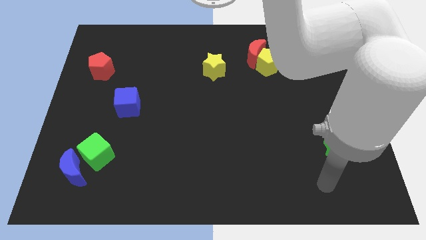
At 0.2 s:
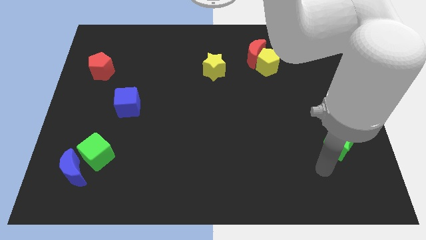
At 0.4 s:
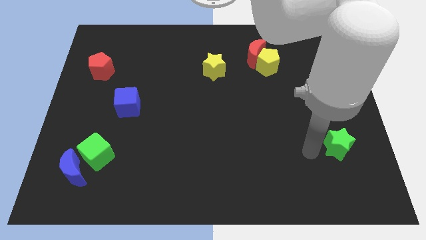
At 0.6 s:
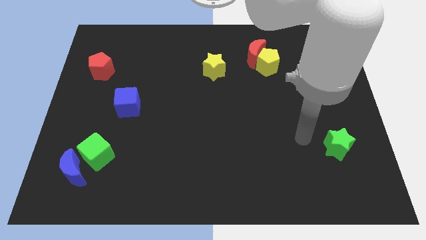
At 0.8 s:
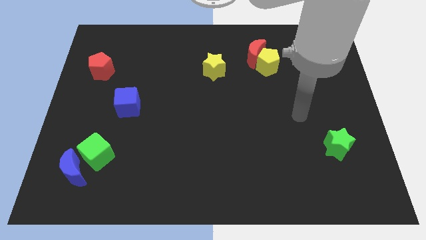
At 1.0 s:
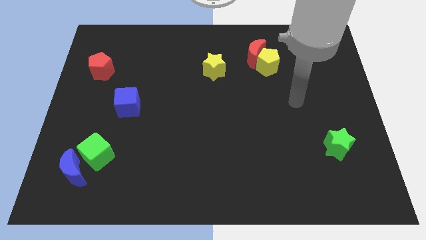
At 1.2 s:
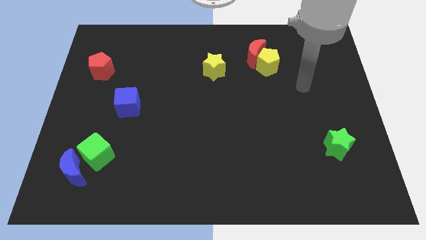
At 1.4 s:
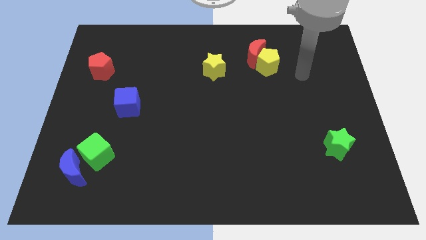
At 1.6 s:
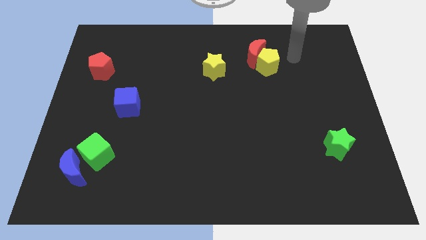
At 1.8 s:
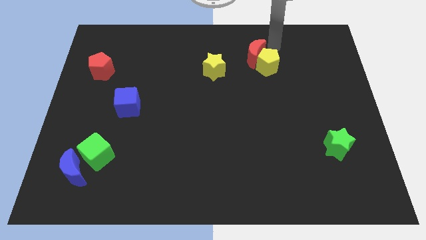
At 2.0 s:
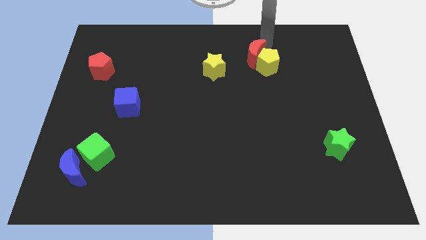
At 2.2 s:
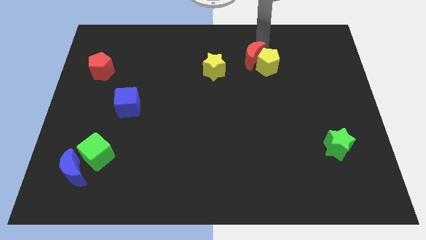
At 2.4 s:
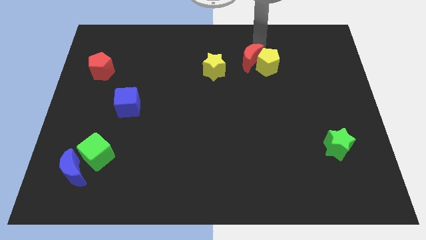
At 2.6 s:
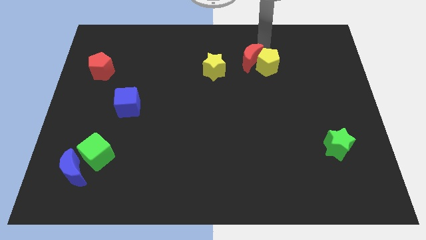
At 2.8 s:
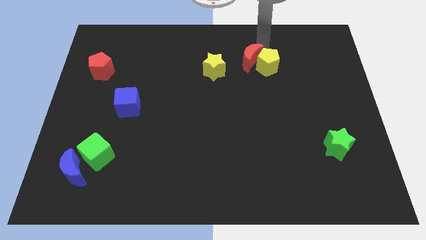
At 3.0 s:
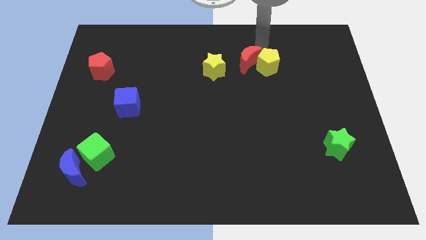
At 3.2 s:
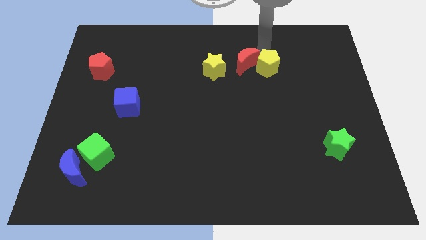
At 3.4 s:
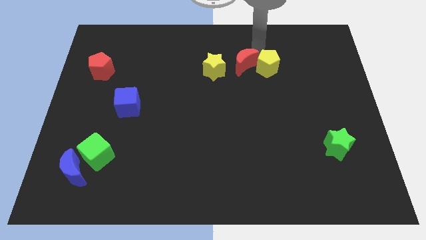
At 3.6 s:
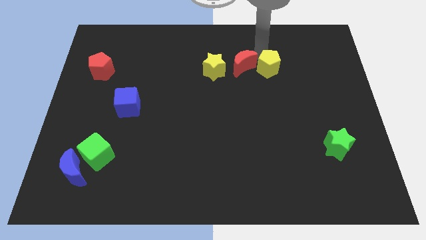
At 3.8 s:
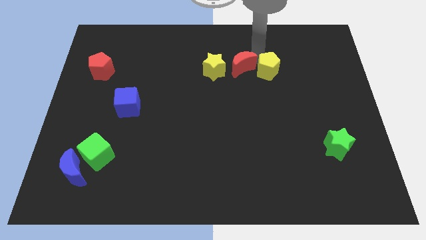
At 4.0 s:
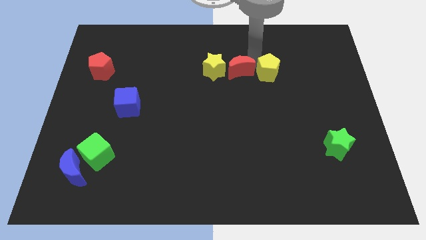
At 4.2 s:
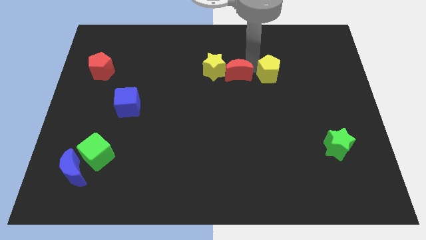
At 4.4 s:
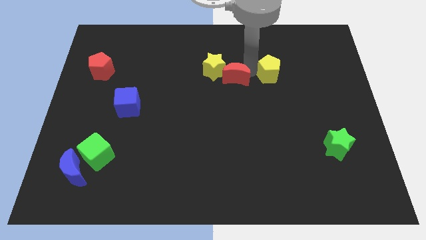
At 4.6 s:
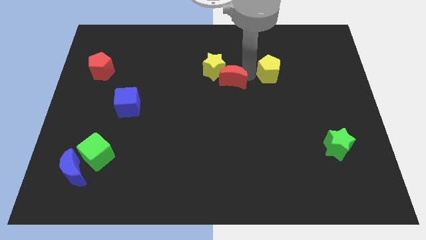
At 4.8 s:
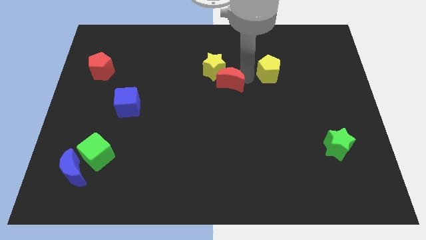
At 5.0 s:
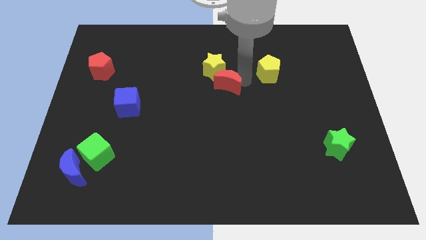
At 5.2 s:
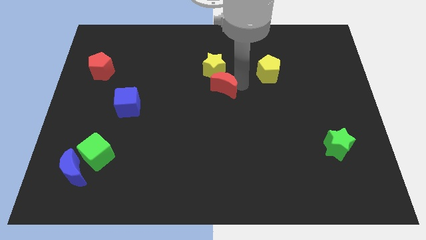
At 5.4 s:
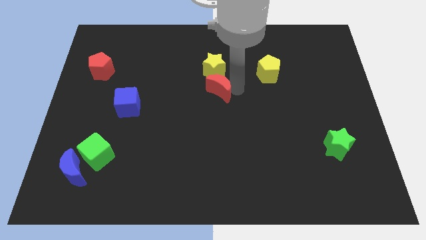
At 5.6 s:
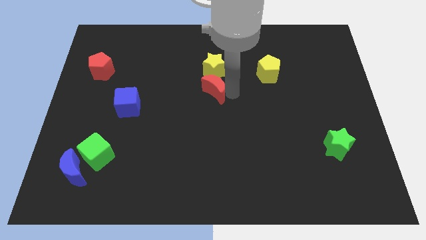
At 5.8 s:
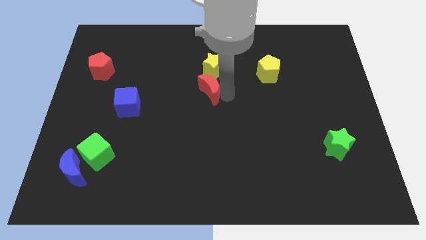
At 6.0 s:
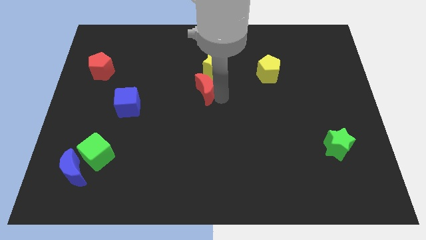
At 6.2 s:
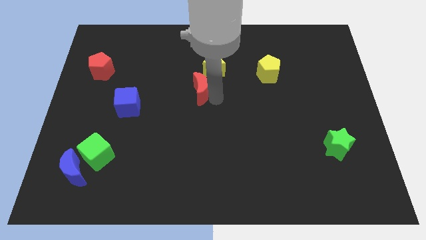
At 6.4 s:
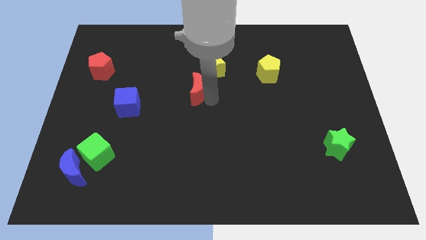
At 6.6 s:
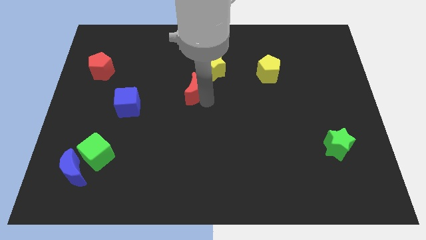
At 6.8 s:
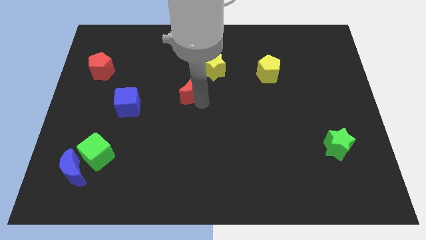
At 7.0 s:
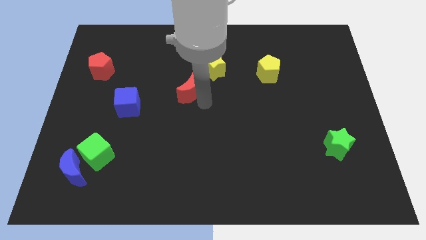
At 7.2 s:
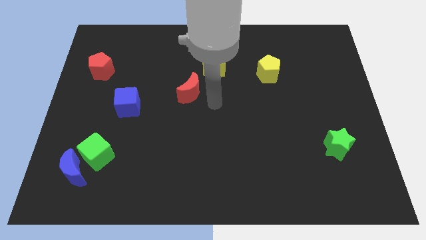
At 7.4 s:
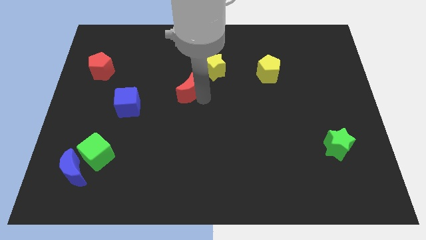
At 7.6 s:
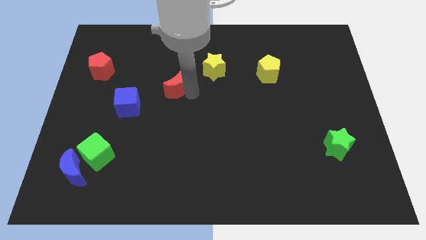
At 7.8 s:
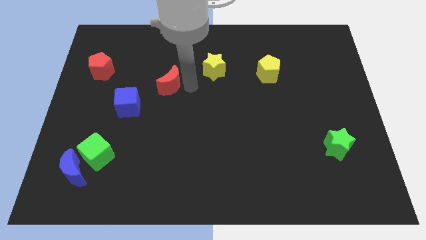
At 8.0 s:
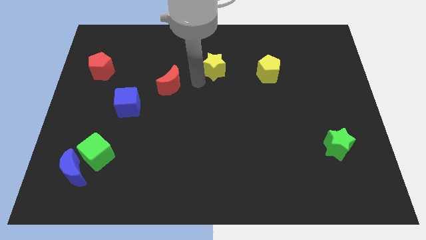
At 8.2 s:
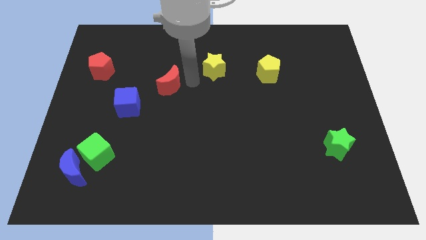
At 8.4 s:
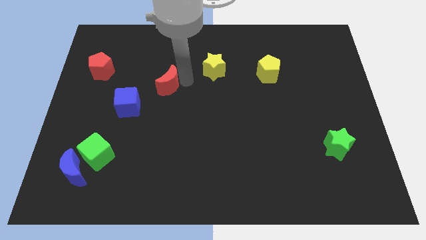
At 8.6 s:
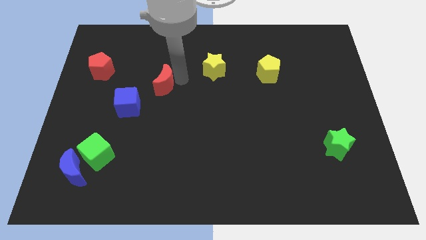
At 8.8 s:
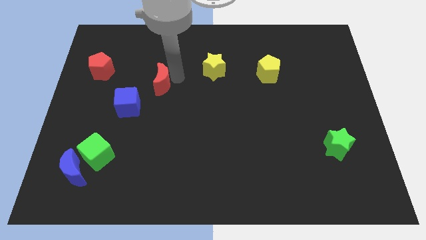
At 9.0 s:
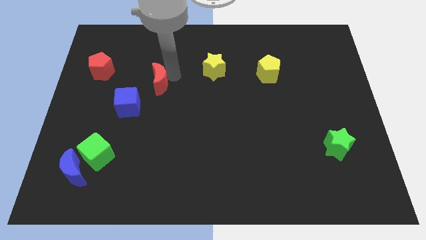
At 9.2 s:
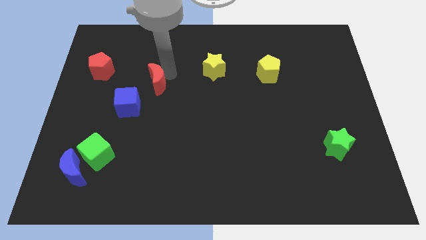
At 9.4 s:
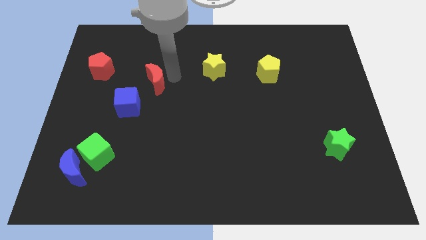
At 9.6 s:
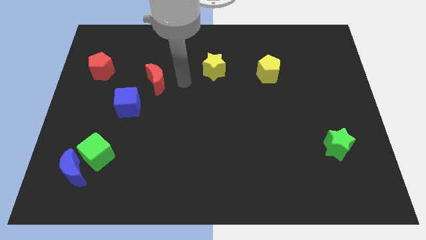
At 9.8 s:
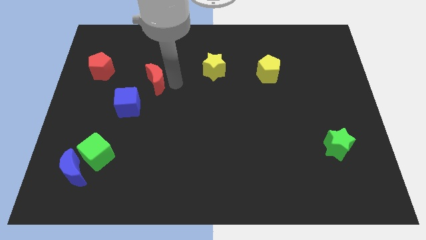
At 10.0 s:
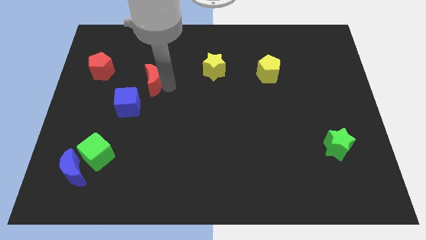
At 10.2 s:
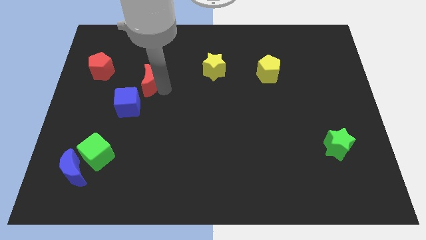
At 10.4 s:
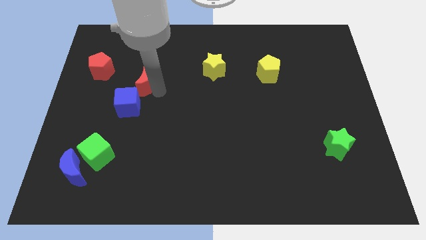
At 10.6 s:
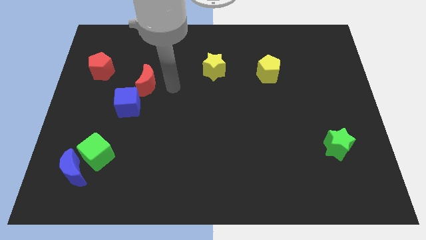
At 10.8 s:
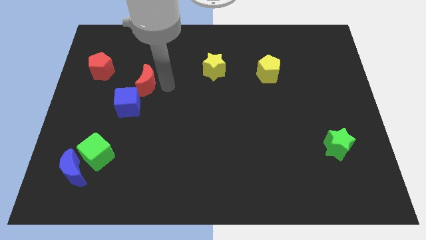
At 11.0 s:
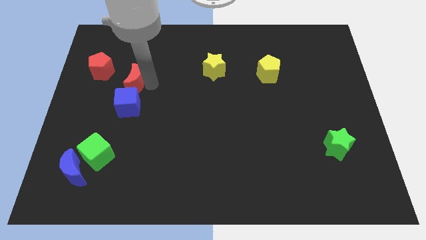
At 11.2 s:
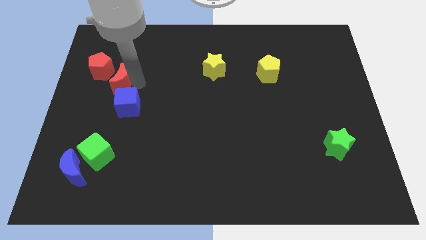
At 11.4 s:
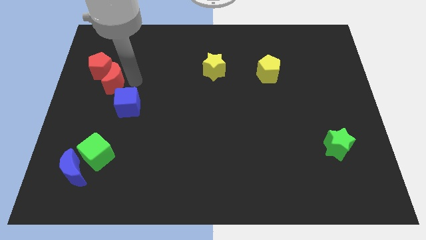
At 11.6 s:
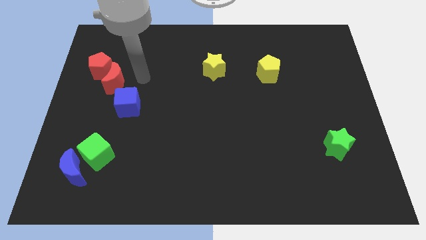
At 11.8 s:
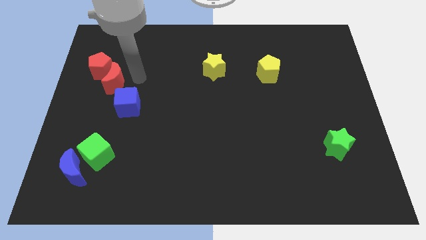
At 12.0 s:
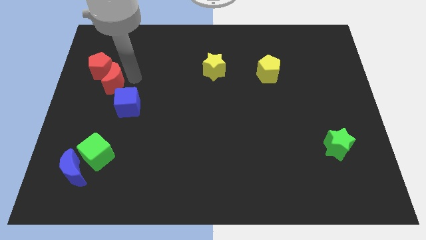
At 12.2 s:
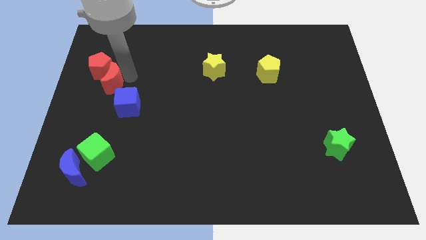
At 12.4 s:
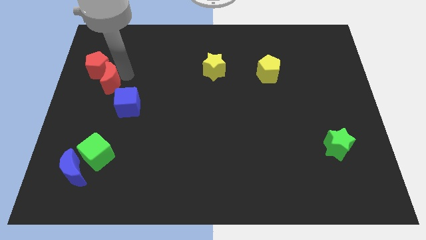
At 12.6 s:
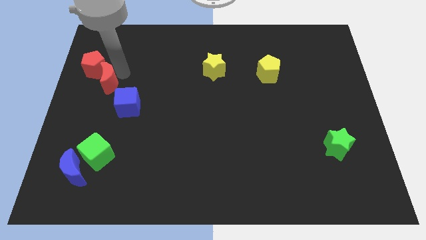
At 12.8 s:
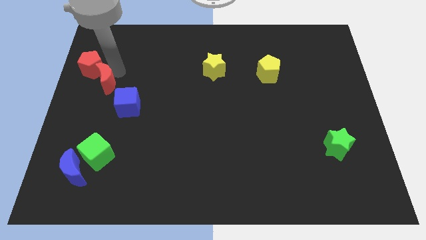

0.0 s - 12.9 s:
move the red moon to the left side of the board

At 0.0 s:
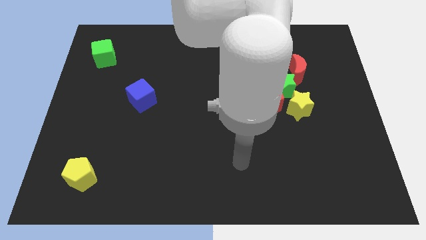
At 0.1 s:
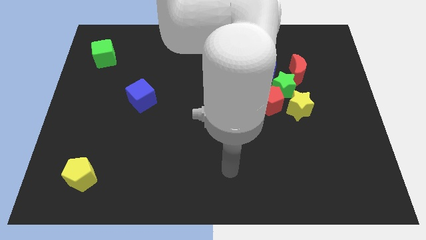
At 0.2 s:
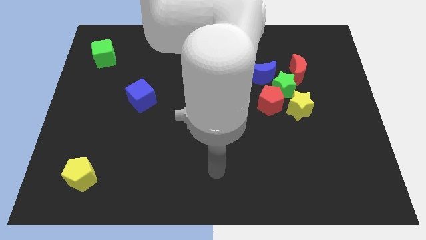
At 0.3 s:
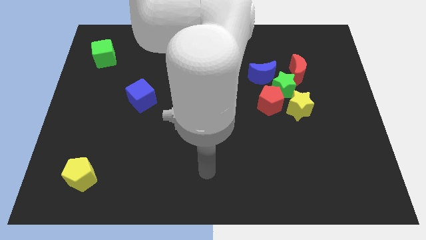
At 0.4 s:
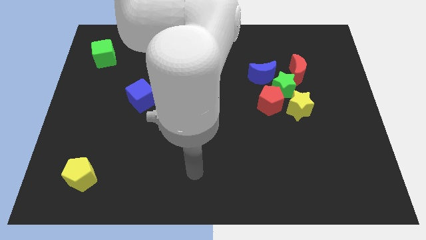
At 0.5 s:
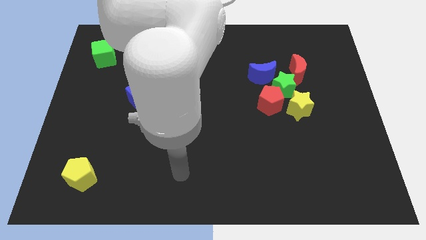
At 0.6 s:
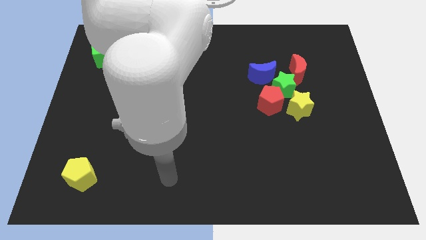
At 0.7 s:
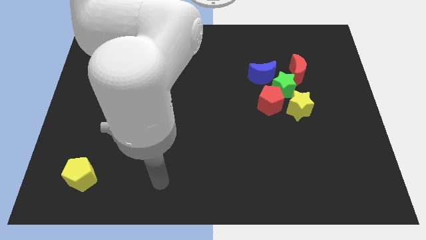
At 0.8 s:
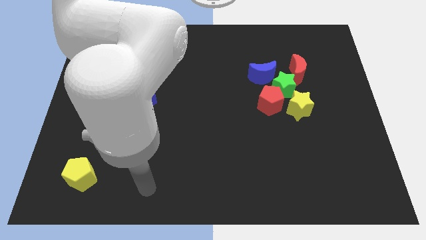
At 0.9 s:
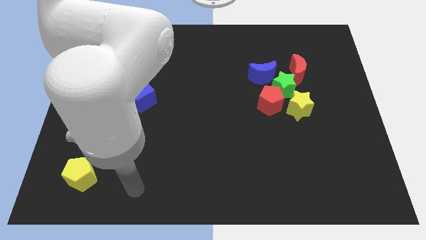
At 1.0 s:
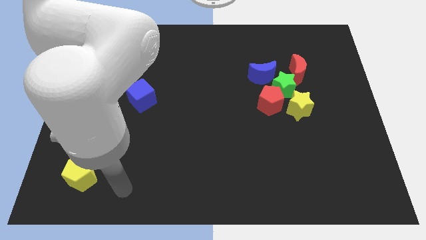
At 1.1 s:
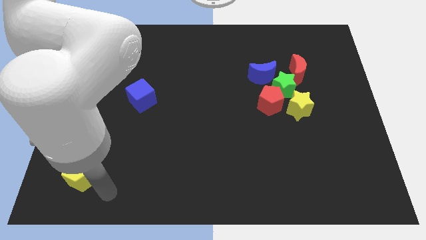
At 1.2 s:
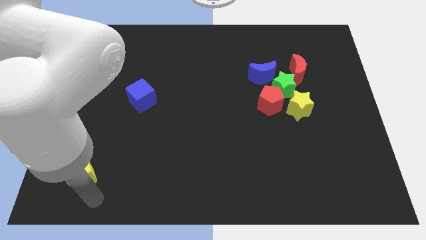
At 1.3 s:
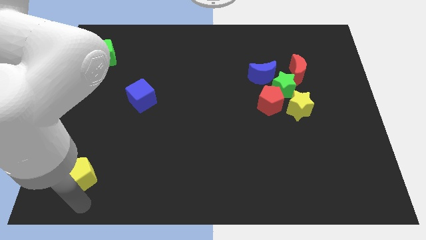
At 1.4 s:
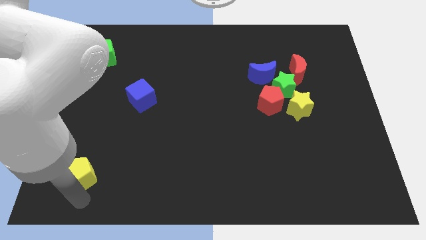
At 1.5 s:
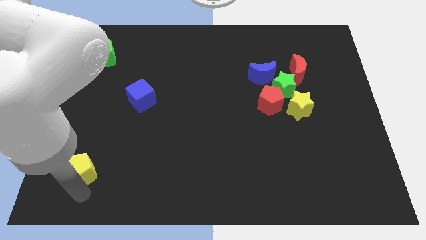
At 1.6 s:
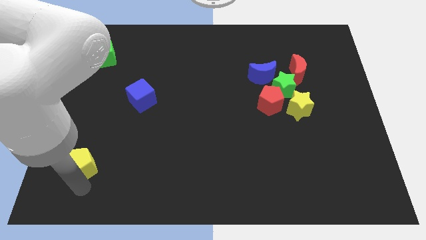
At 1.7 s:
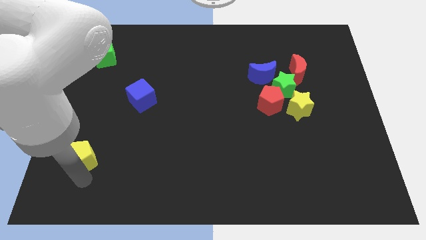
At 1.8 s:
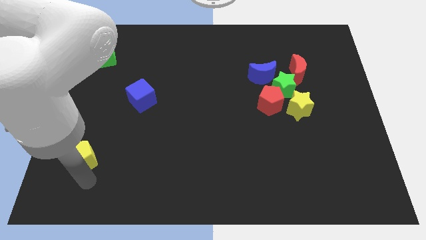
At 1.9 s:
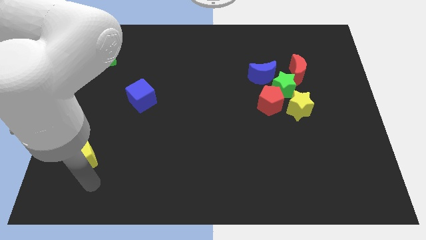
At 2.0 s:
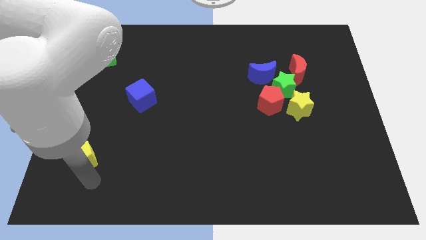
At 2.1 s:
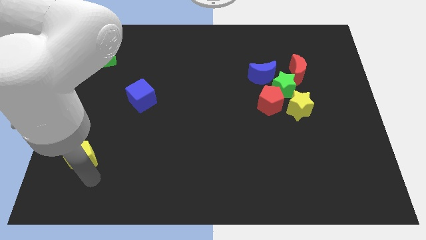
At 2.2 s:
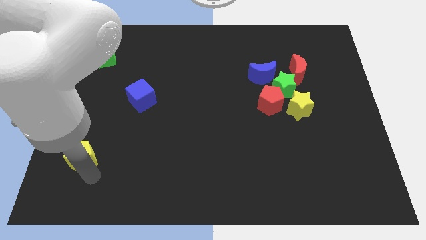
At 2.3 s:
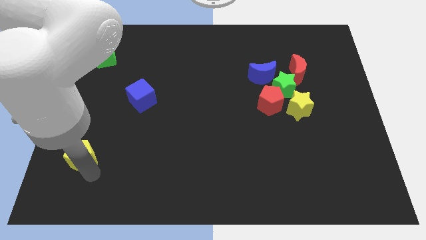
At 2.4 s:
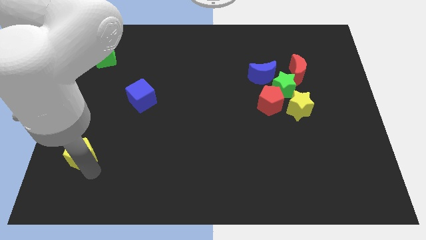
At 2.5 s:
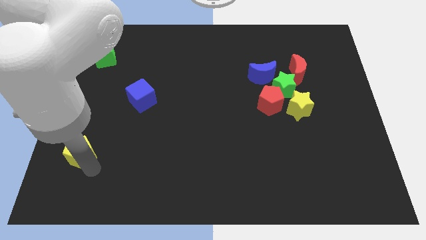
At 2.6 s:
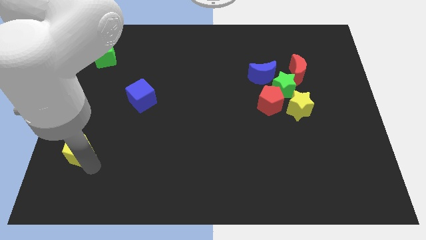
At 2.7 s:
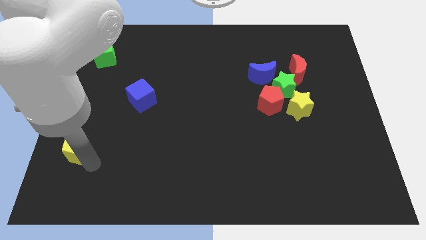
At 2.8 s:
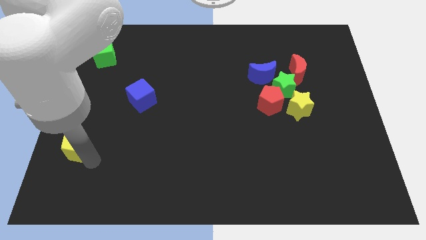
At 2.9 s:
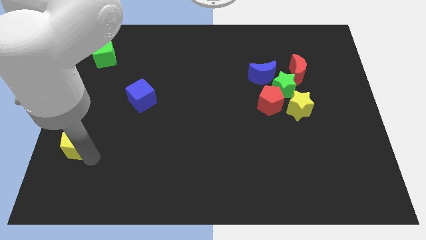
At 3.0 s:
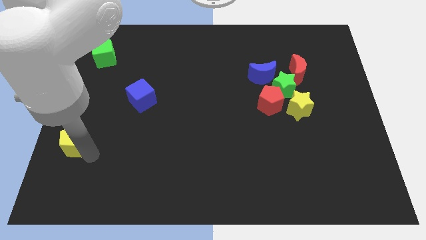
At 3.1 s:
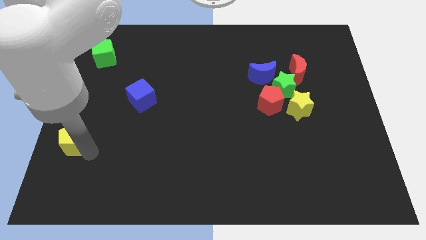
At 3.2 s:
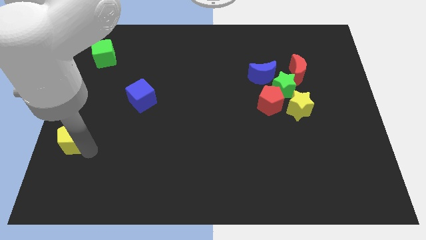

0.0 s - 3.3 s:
move the yellow pentagon to the left side of the board
